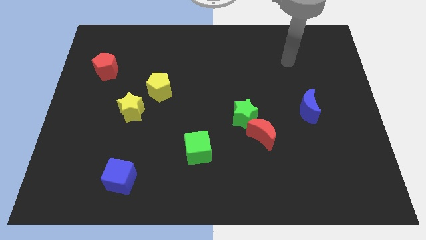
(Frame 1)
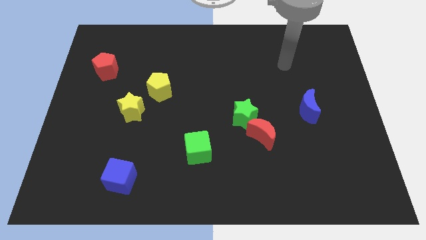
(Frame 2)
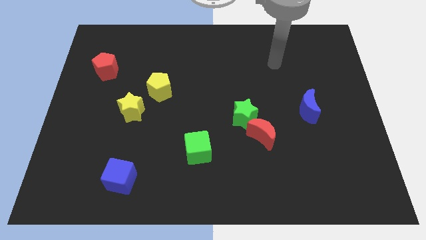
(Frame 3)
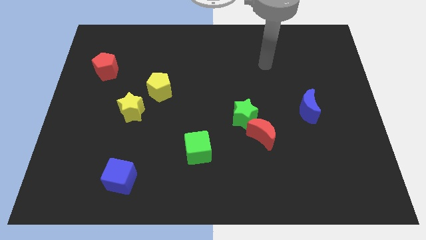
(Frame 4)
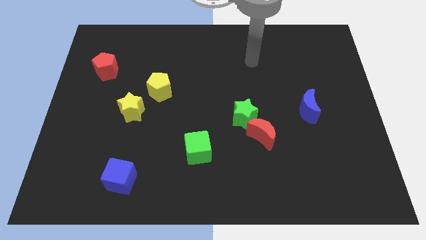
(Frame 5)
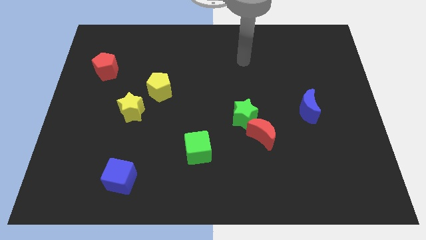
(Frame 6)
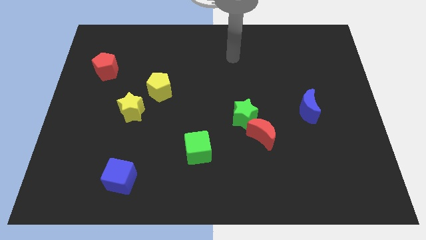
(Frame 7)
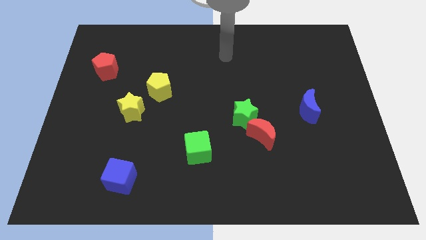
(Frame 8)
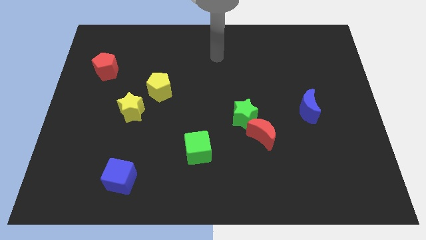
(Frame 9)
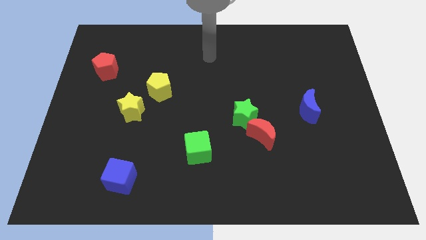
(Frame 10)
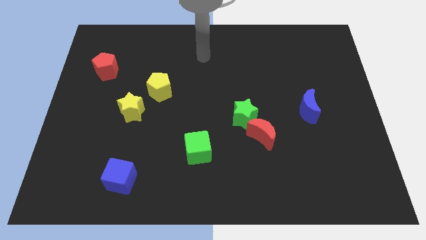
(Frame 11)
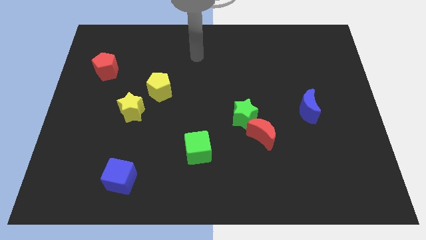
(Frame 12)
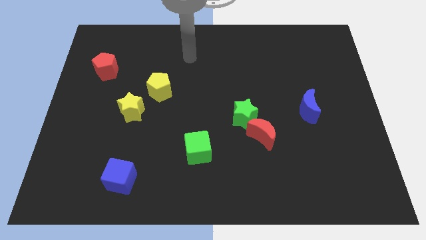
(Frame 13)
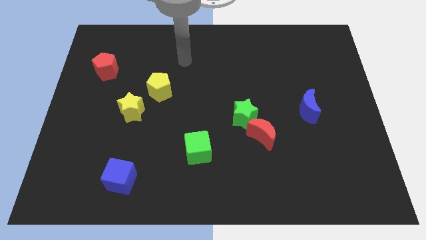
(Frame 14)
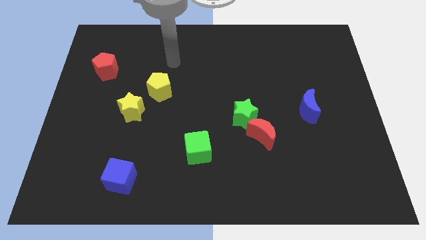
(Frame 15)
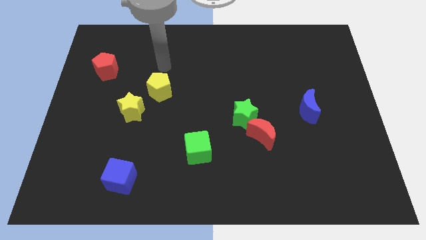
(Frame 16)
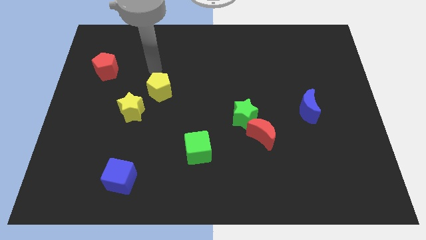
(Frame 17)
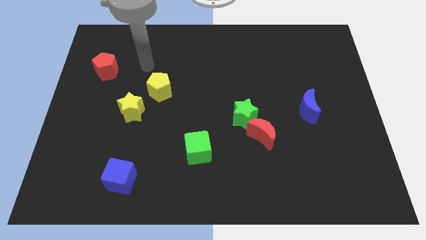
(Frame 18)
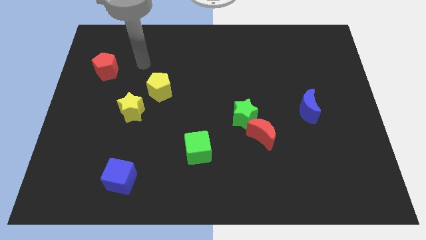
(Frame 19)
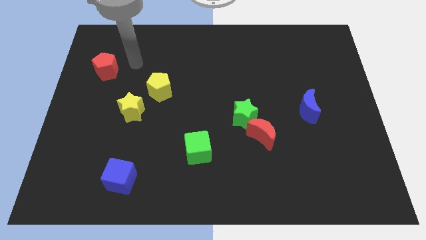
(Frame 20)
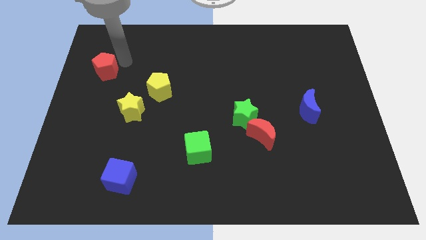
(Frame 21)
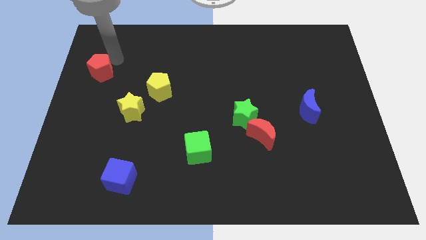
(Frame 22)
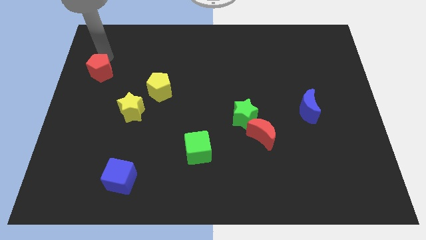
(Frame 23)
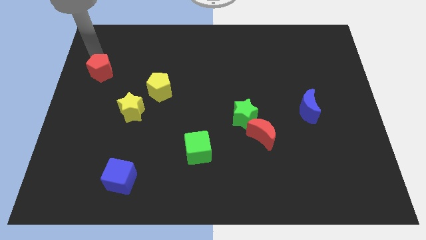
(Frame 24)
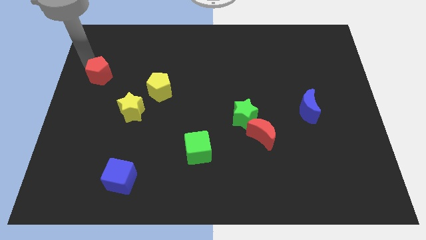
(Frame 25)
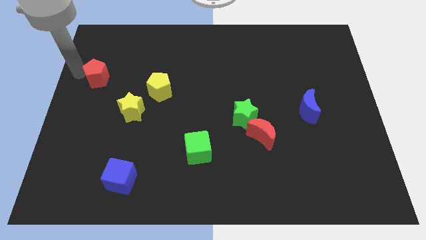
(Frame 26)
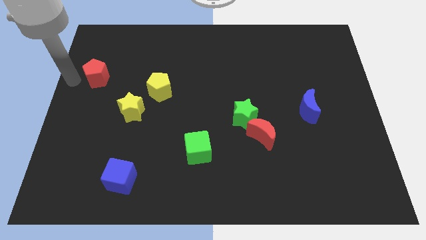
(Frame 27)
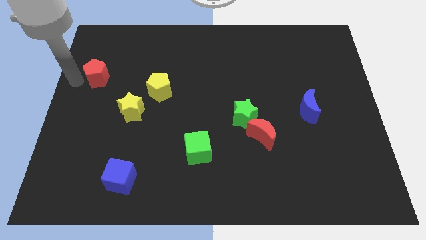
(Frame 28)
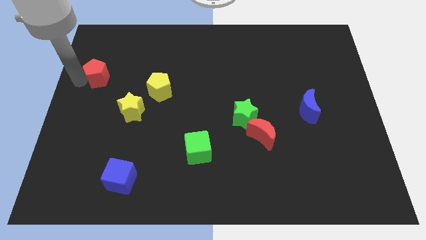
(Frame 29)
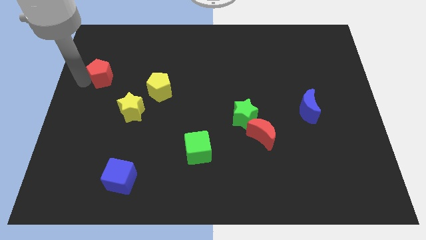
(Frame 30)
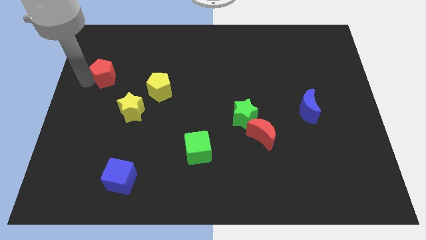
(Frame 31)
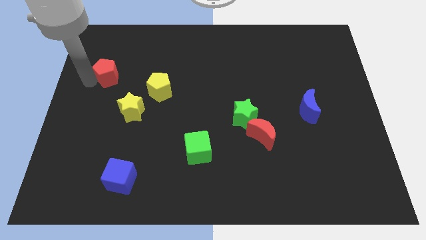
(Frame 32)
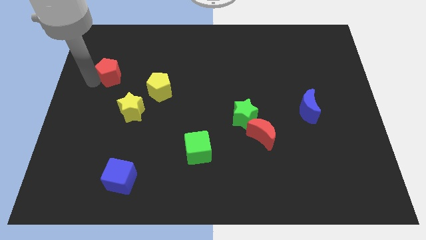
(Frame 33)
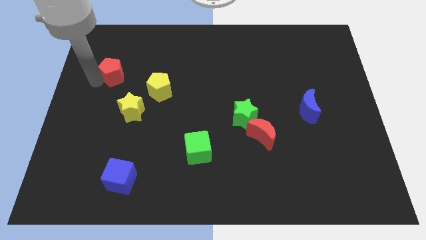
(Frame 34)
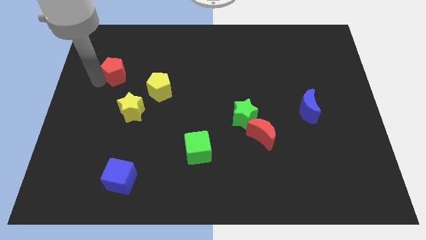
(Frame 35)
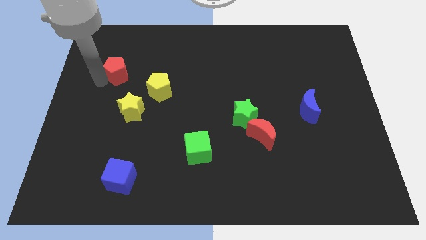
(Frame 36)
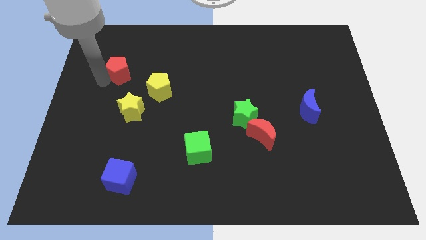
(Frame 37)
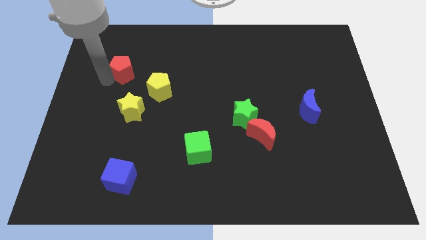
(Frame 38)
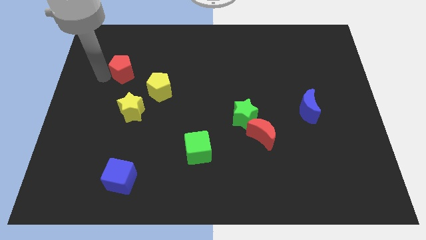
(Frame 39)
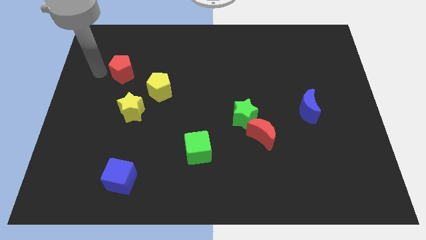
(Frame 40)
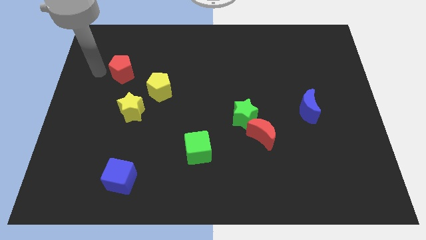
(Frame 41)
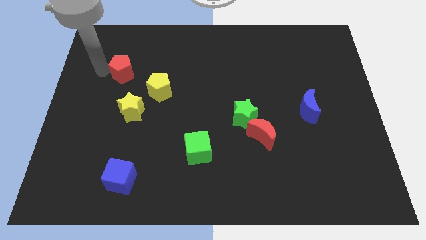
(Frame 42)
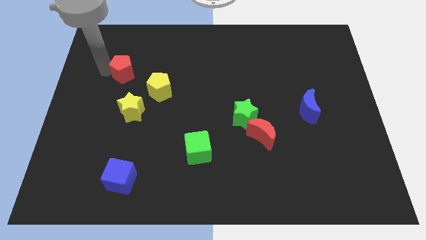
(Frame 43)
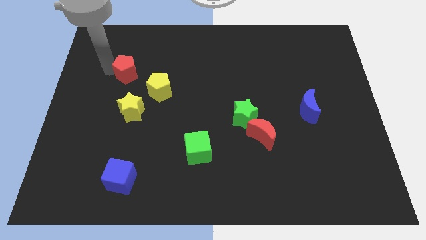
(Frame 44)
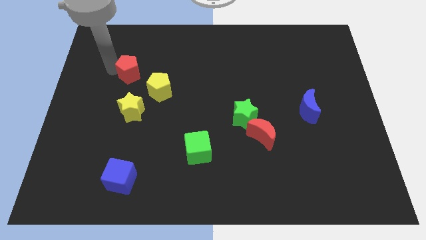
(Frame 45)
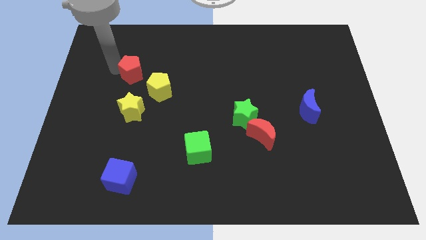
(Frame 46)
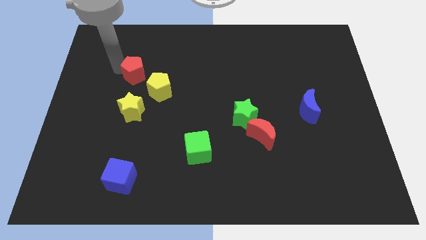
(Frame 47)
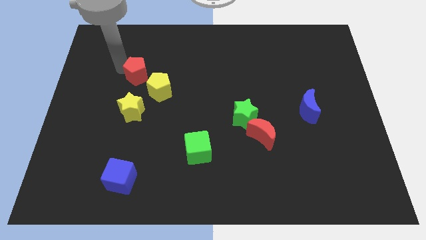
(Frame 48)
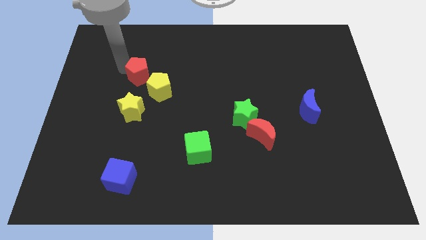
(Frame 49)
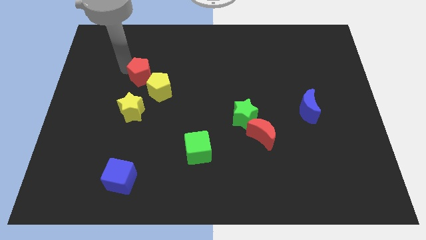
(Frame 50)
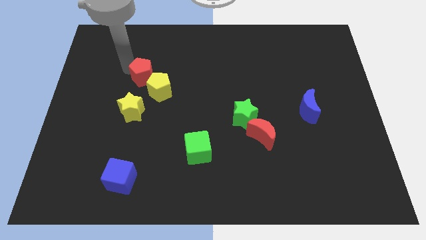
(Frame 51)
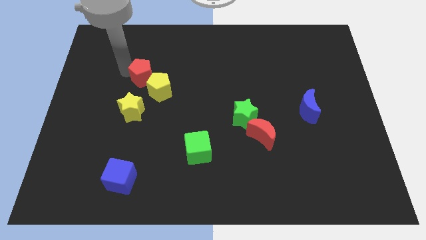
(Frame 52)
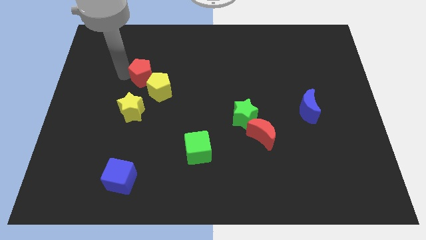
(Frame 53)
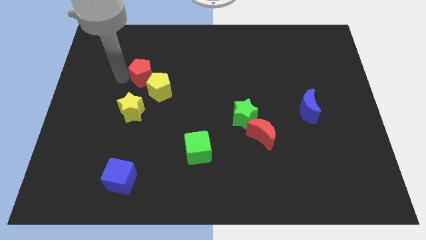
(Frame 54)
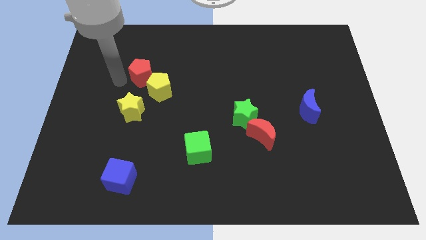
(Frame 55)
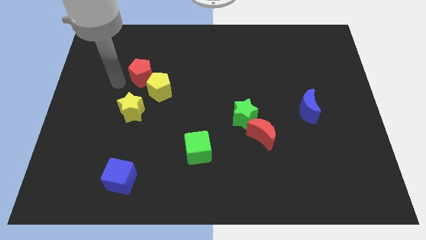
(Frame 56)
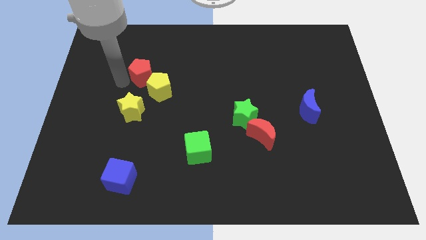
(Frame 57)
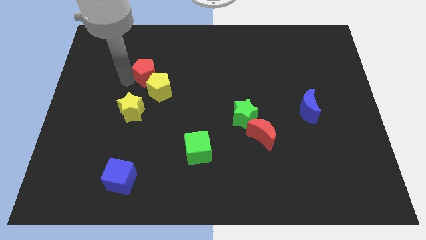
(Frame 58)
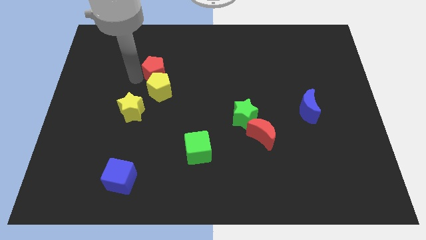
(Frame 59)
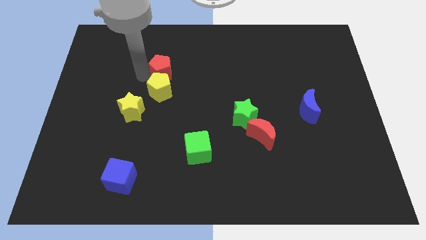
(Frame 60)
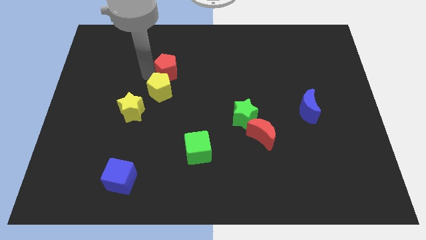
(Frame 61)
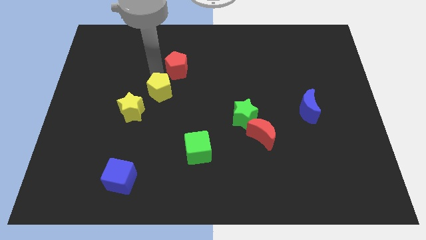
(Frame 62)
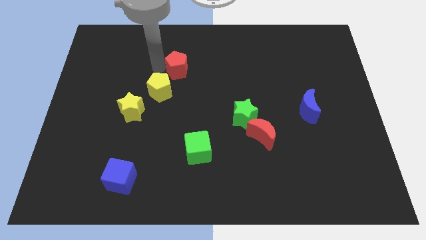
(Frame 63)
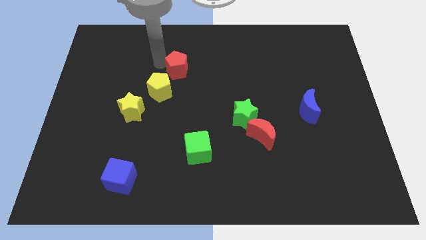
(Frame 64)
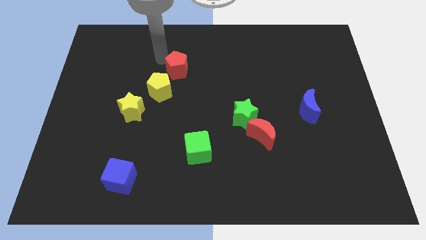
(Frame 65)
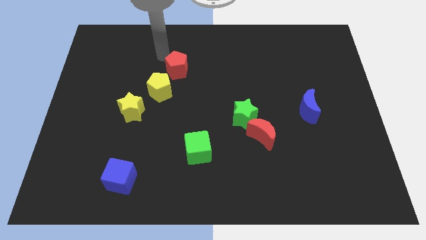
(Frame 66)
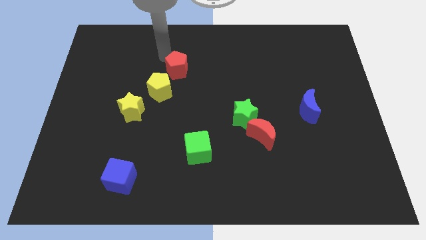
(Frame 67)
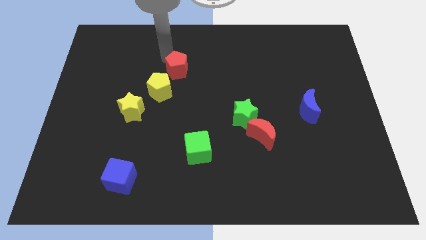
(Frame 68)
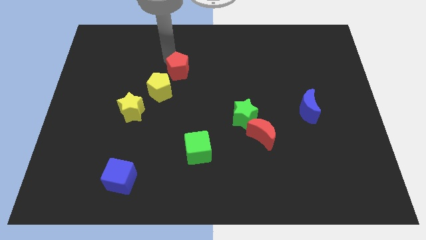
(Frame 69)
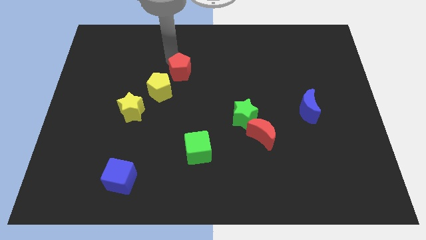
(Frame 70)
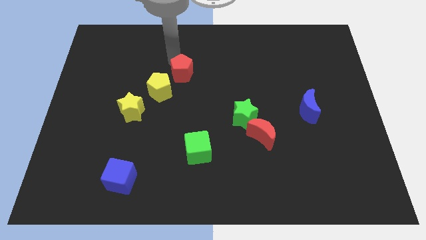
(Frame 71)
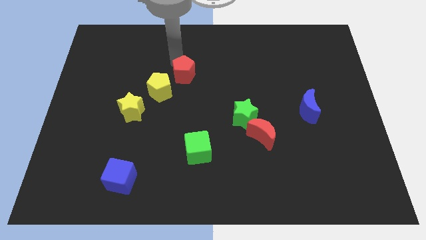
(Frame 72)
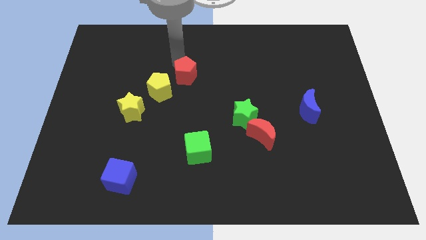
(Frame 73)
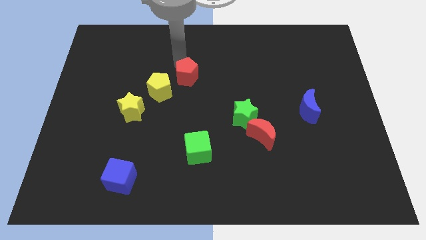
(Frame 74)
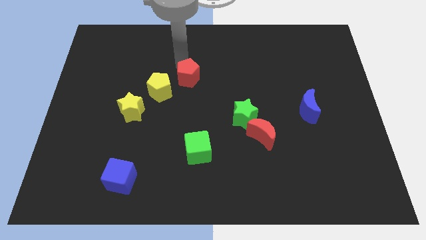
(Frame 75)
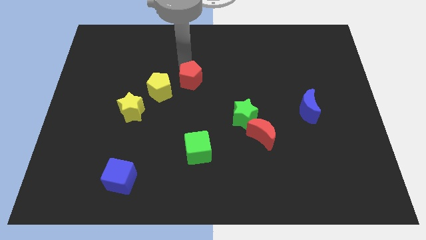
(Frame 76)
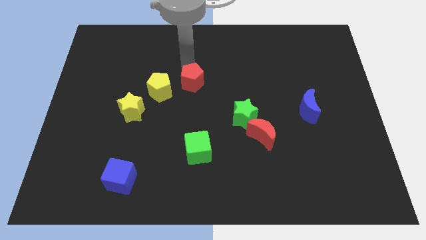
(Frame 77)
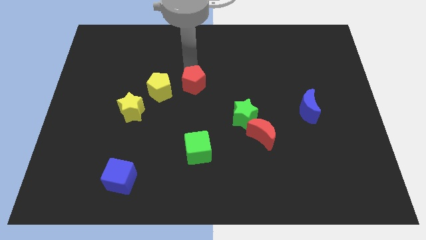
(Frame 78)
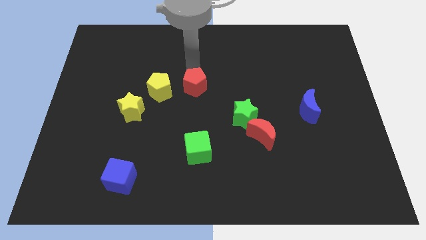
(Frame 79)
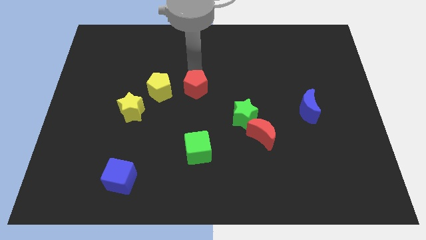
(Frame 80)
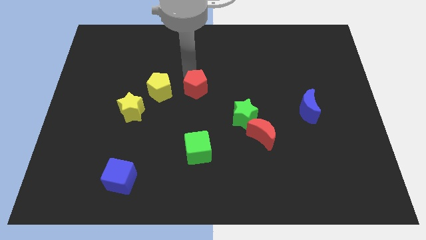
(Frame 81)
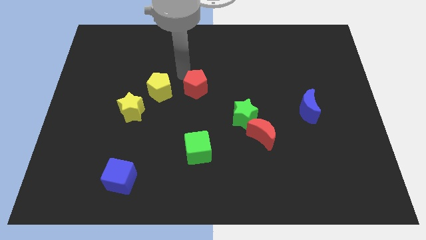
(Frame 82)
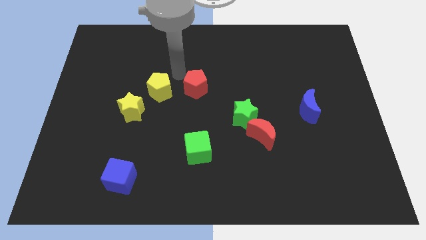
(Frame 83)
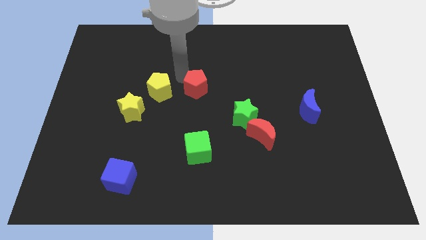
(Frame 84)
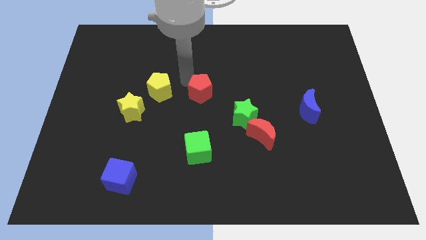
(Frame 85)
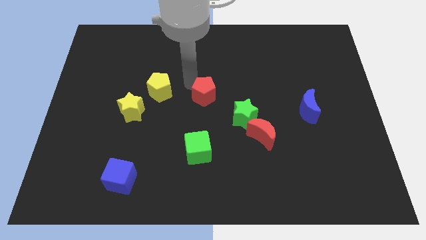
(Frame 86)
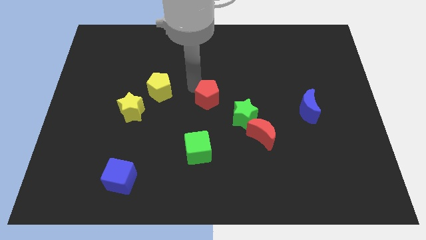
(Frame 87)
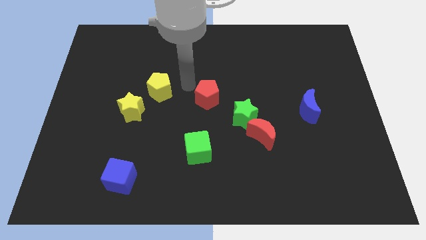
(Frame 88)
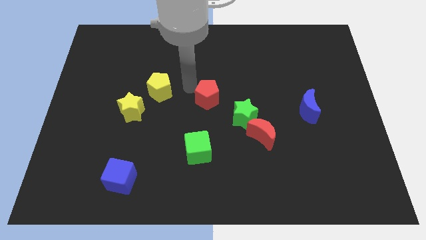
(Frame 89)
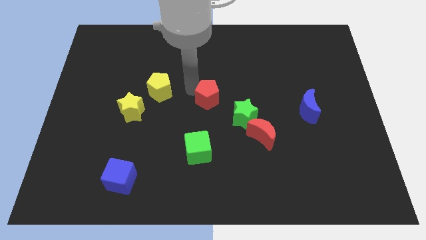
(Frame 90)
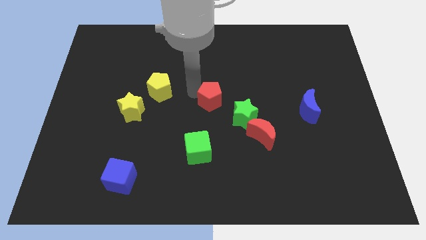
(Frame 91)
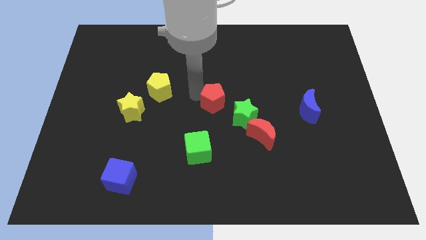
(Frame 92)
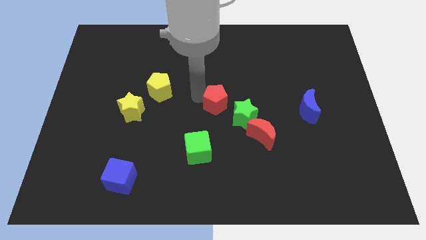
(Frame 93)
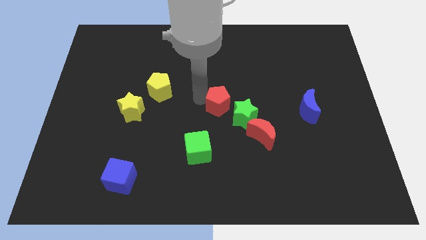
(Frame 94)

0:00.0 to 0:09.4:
push the red pentagon to the top left of the red moon
